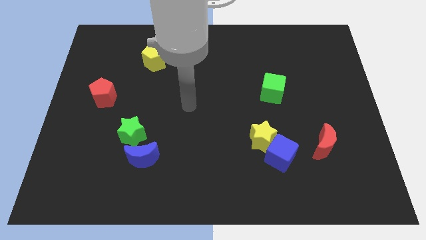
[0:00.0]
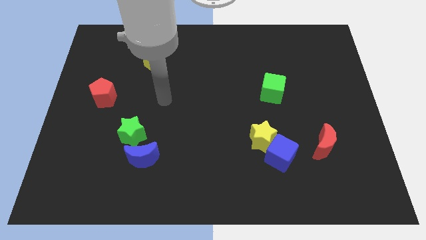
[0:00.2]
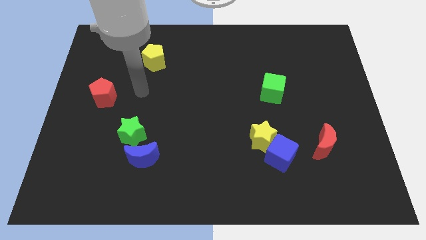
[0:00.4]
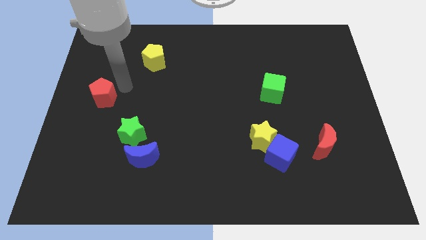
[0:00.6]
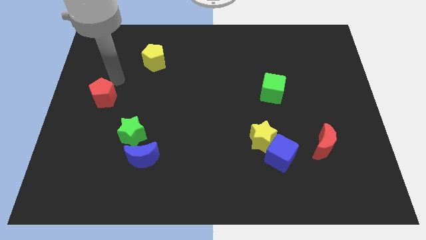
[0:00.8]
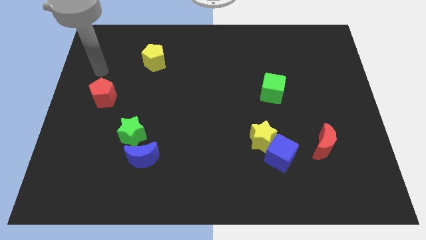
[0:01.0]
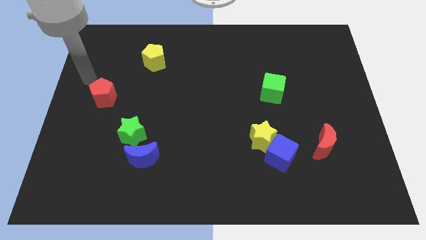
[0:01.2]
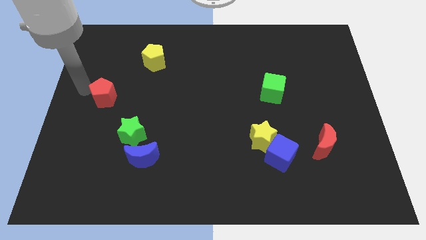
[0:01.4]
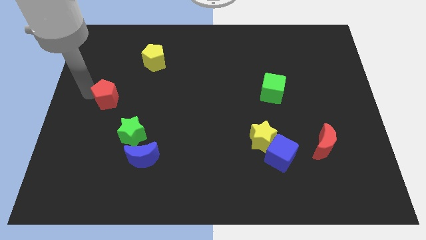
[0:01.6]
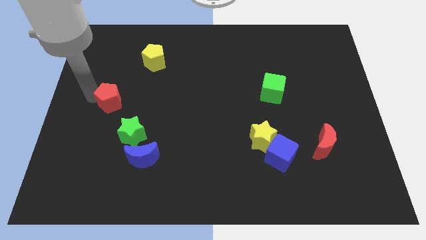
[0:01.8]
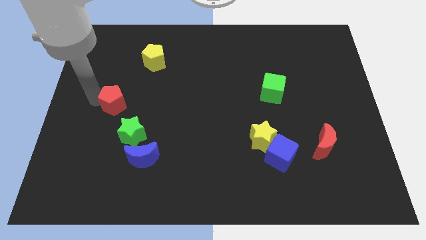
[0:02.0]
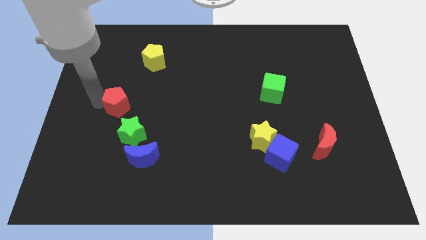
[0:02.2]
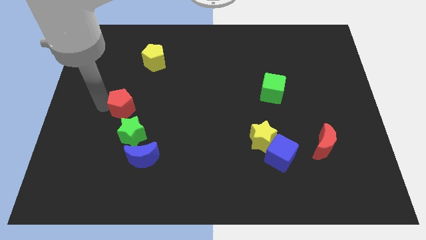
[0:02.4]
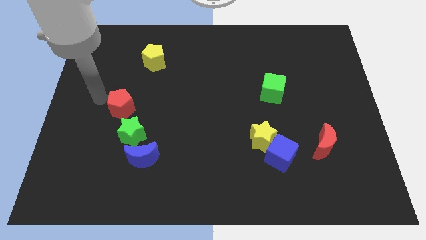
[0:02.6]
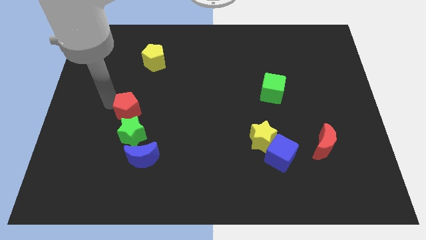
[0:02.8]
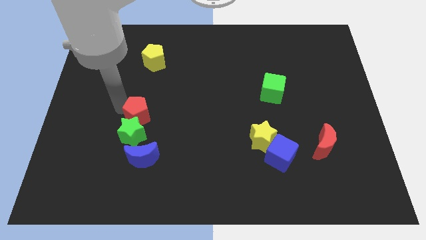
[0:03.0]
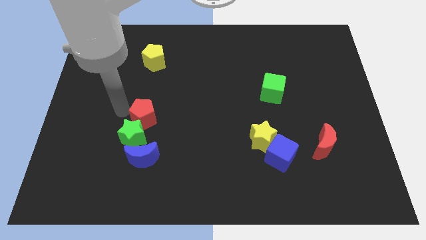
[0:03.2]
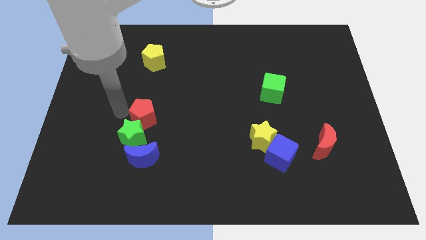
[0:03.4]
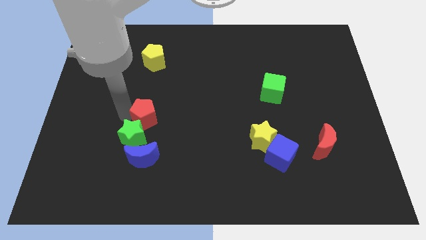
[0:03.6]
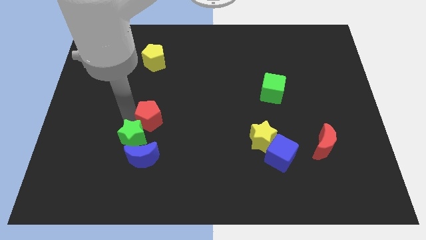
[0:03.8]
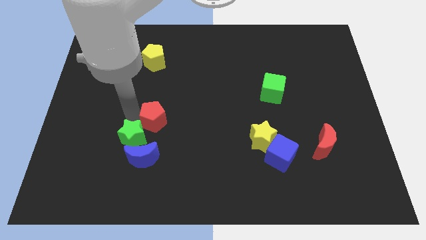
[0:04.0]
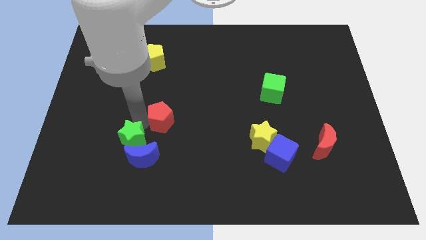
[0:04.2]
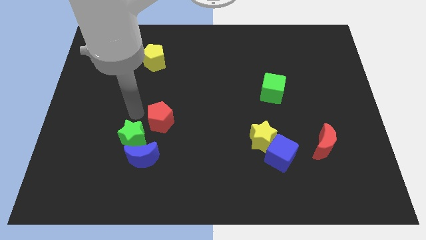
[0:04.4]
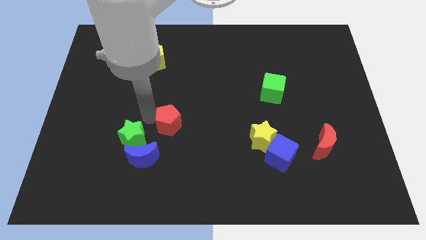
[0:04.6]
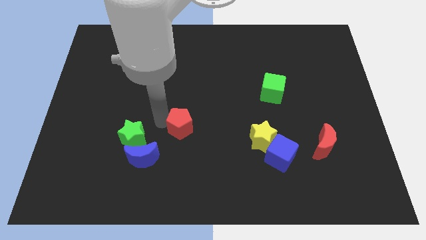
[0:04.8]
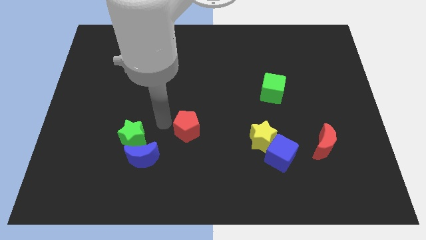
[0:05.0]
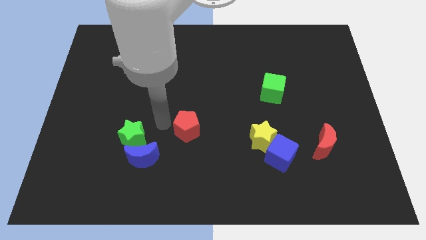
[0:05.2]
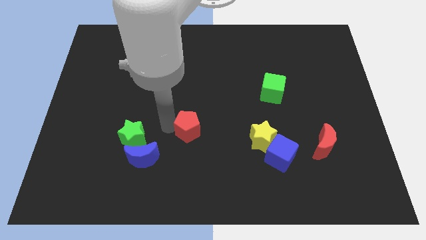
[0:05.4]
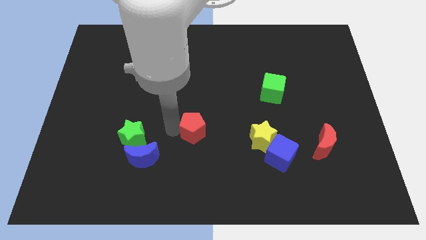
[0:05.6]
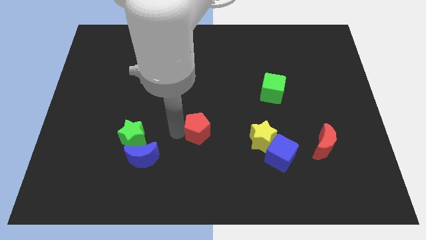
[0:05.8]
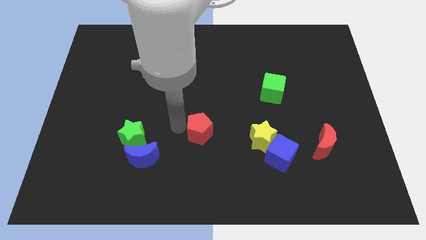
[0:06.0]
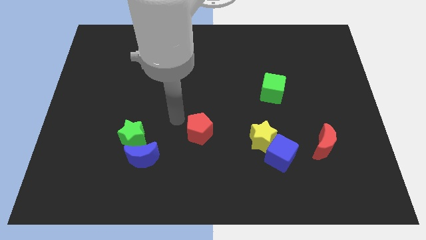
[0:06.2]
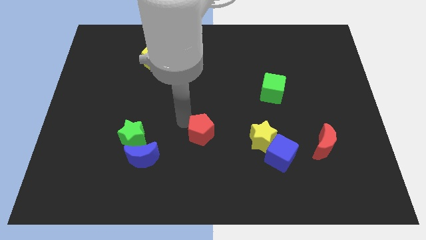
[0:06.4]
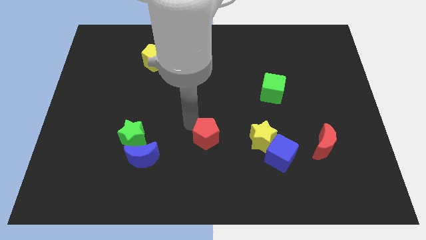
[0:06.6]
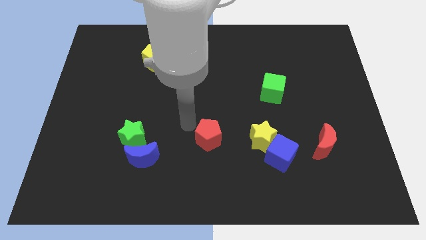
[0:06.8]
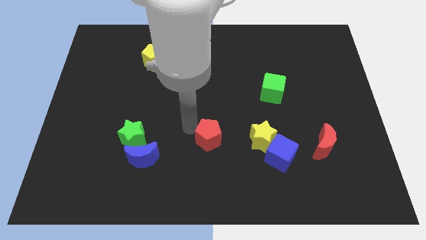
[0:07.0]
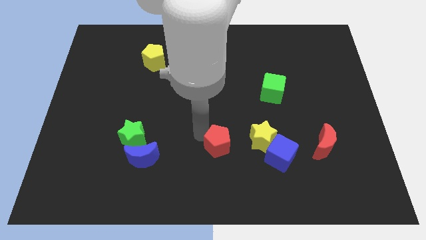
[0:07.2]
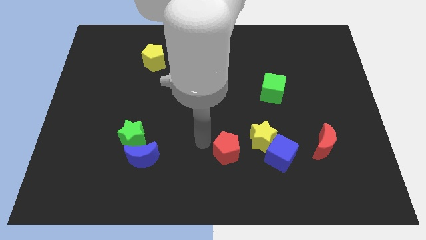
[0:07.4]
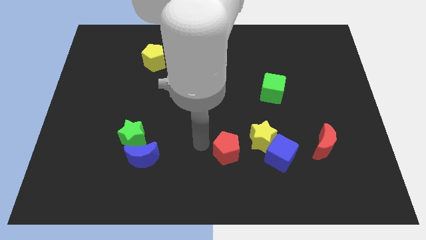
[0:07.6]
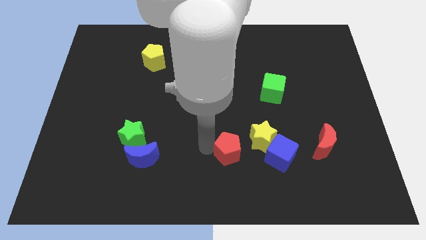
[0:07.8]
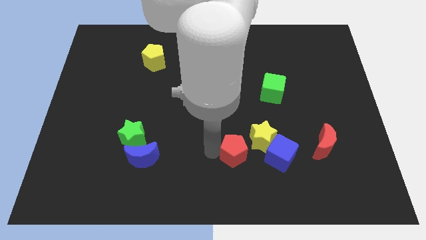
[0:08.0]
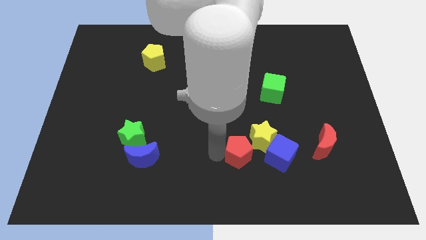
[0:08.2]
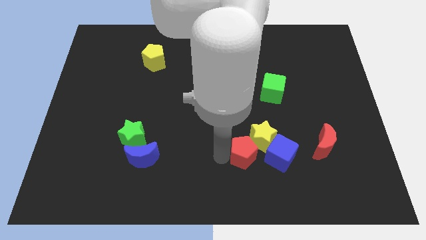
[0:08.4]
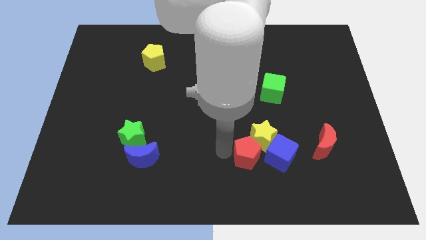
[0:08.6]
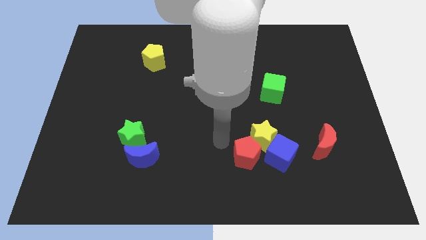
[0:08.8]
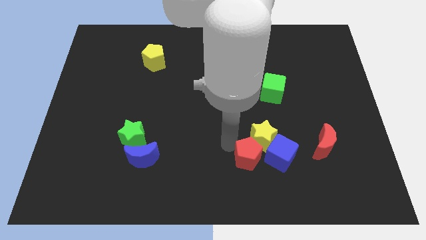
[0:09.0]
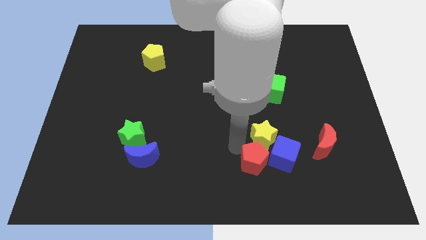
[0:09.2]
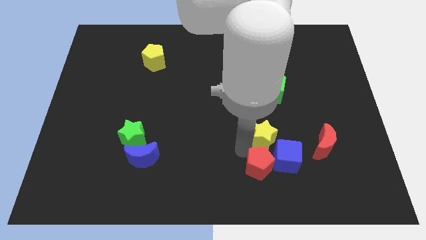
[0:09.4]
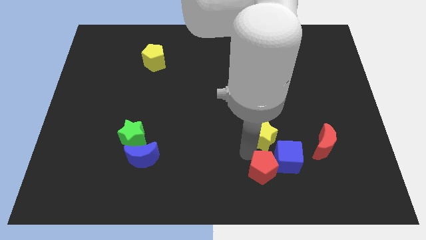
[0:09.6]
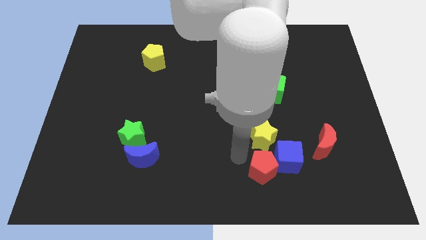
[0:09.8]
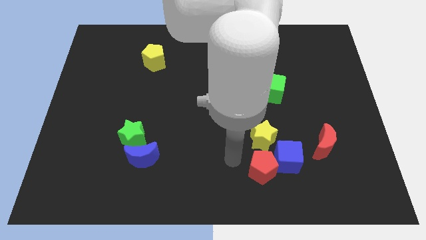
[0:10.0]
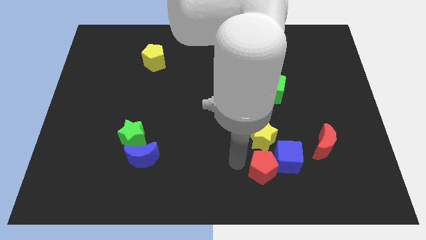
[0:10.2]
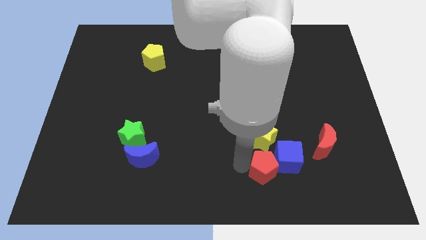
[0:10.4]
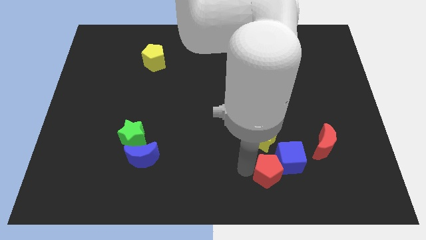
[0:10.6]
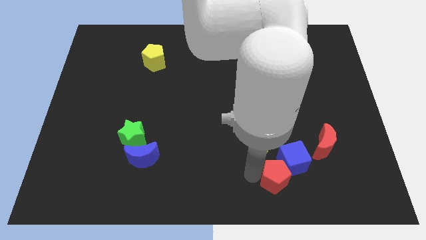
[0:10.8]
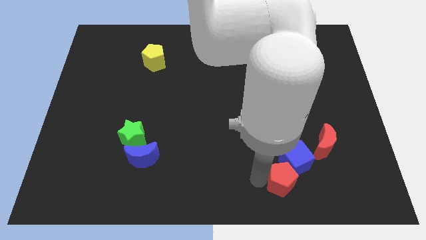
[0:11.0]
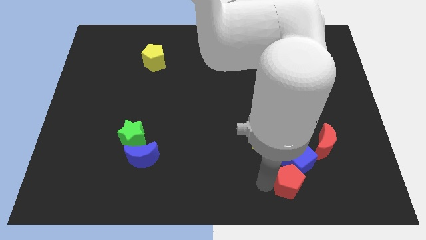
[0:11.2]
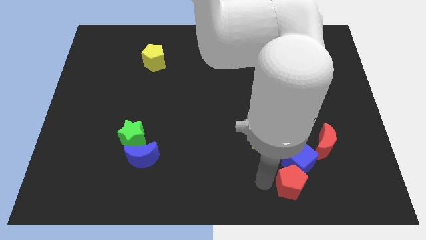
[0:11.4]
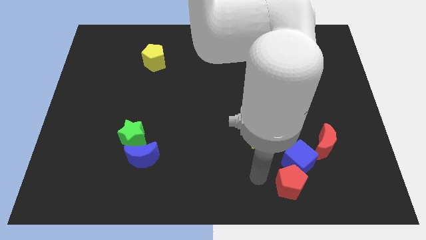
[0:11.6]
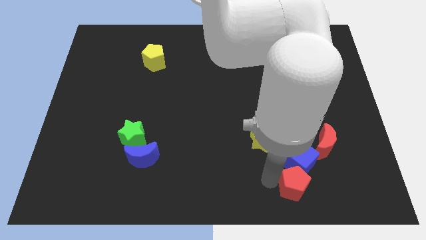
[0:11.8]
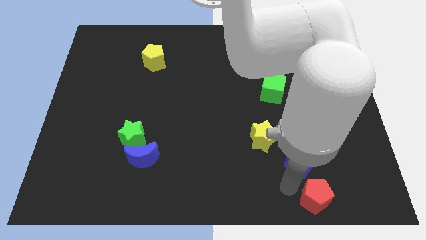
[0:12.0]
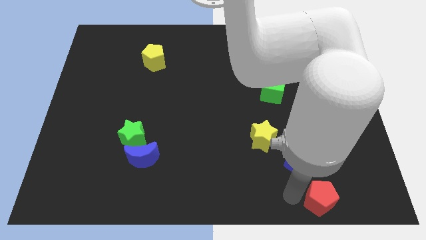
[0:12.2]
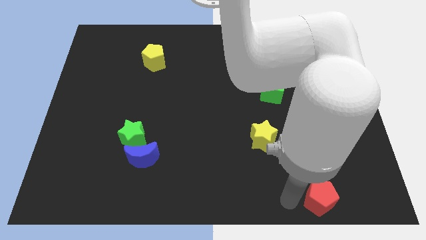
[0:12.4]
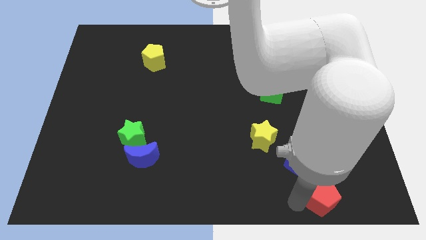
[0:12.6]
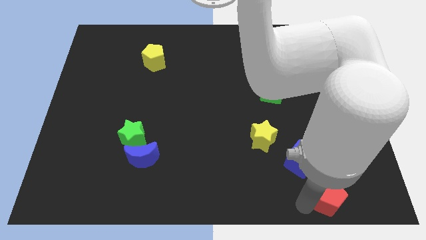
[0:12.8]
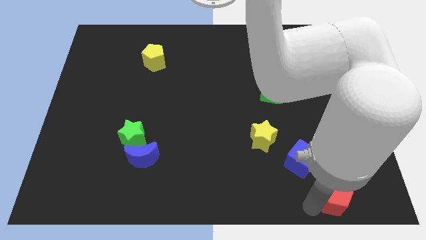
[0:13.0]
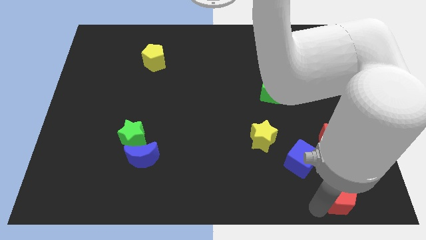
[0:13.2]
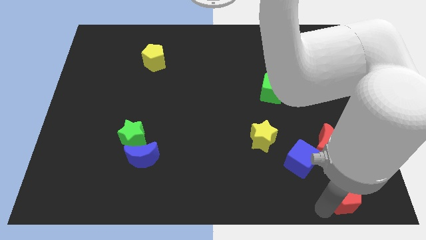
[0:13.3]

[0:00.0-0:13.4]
push the red pentagon to the bottom right

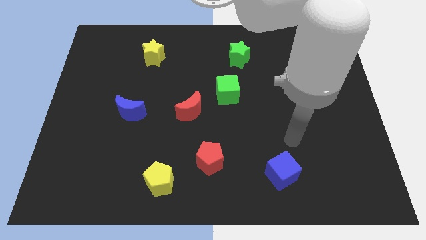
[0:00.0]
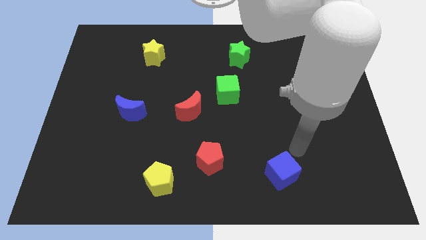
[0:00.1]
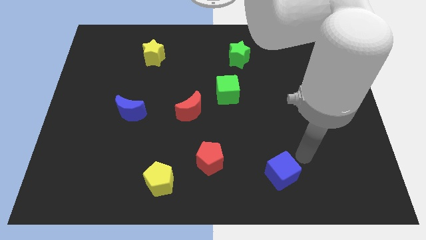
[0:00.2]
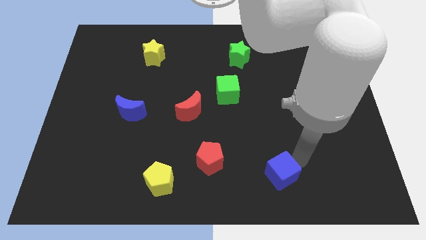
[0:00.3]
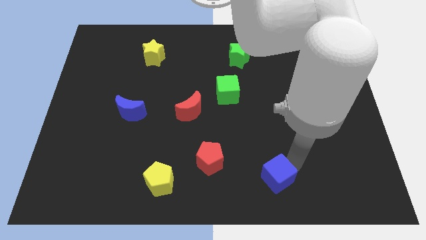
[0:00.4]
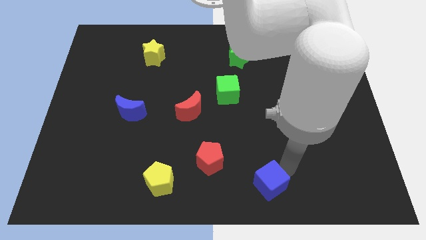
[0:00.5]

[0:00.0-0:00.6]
slide the blue cube to the bottom side
